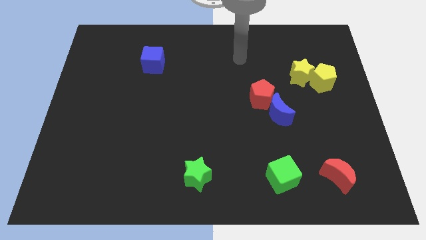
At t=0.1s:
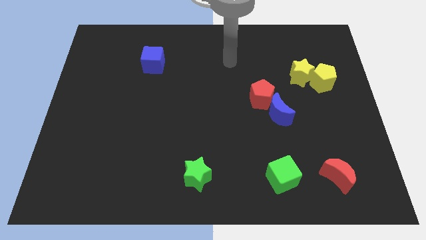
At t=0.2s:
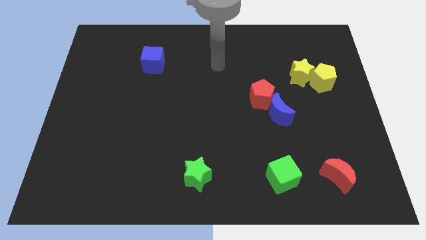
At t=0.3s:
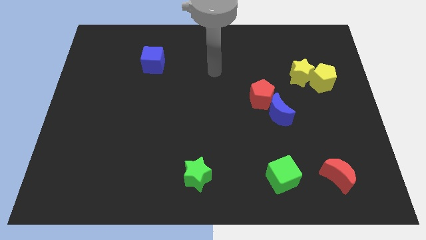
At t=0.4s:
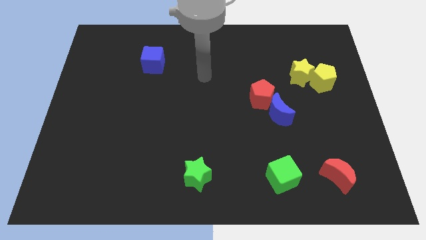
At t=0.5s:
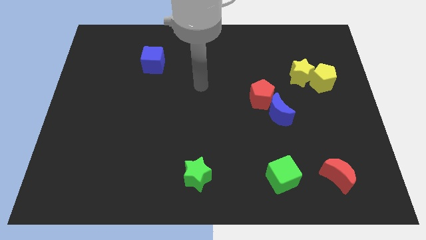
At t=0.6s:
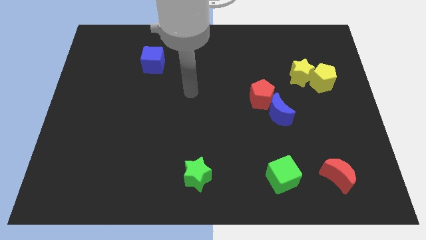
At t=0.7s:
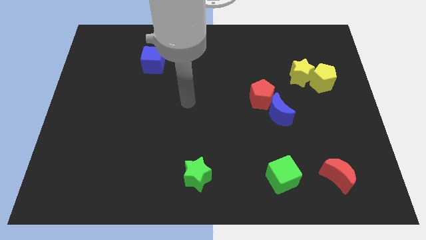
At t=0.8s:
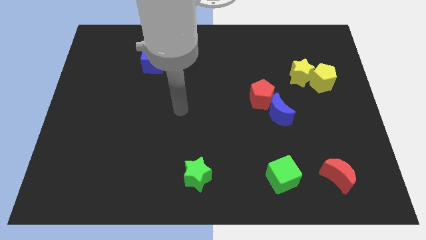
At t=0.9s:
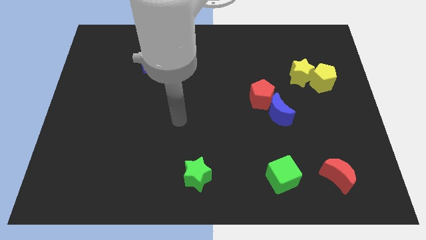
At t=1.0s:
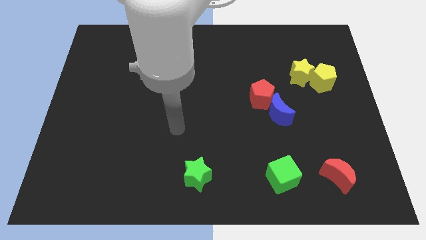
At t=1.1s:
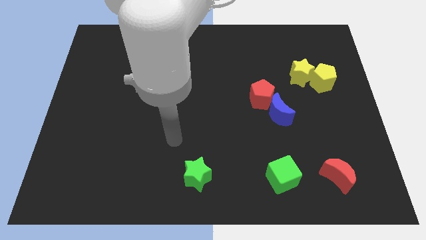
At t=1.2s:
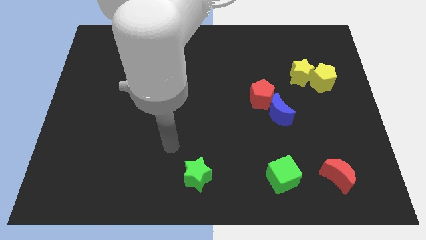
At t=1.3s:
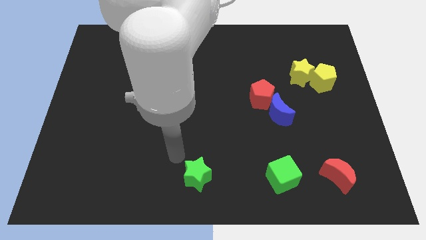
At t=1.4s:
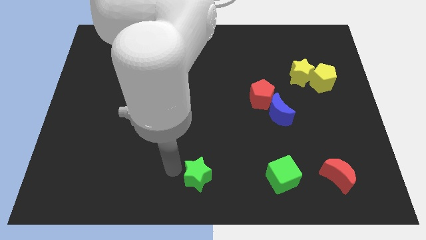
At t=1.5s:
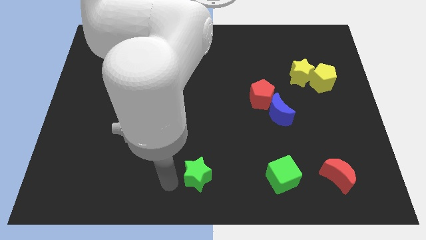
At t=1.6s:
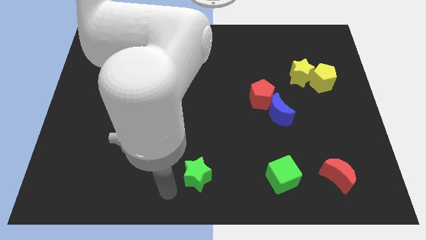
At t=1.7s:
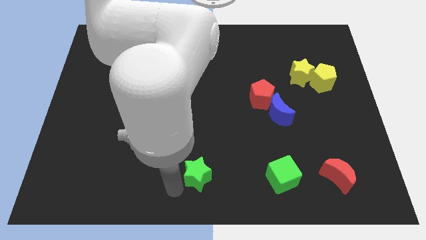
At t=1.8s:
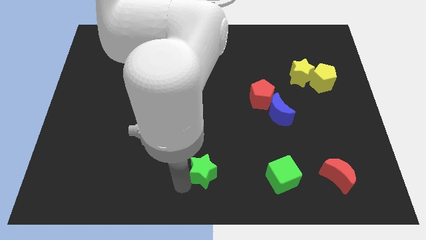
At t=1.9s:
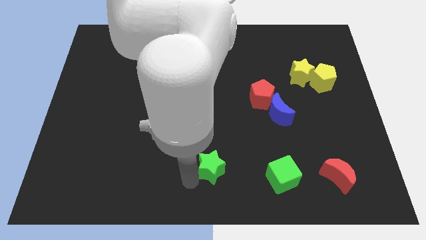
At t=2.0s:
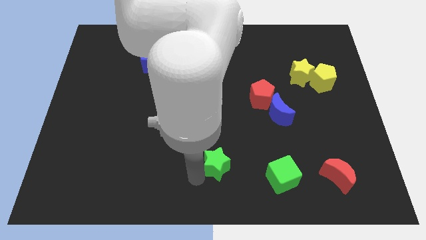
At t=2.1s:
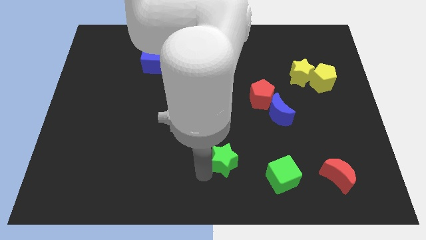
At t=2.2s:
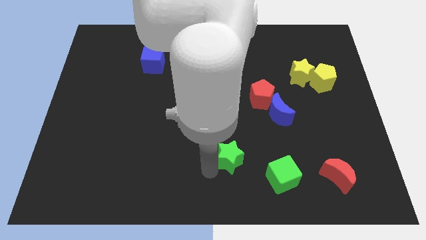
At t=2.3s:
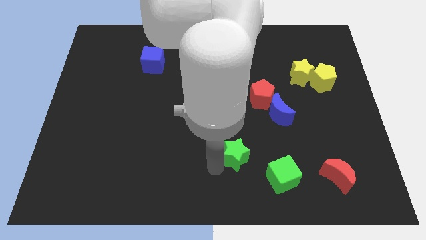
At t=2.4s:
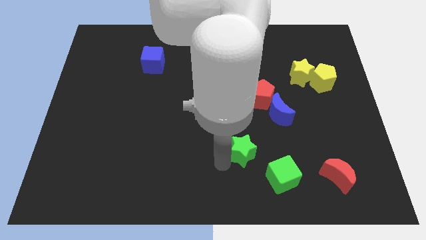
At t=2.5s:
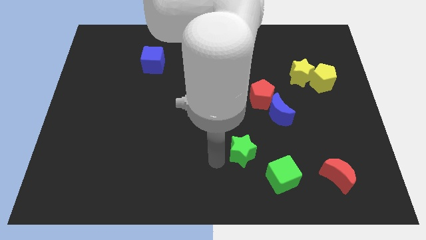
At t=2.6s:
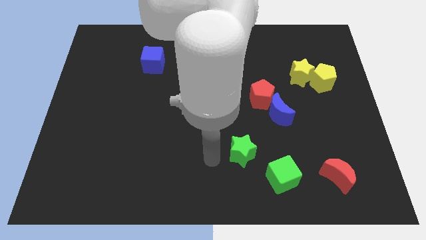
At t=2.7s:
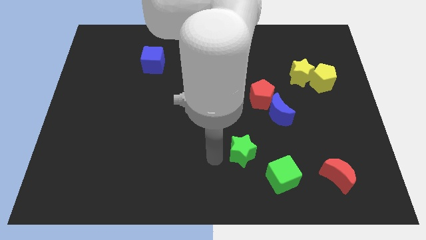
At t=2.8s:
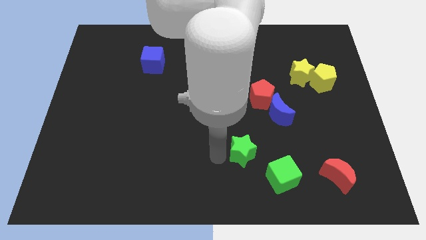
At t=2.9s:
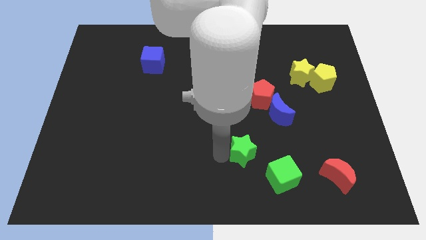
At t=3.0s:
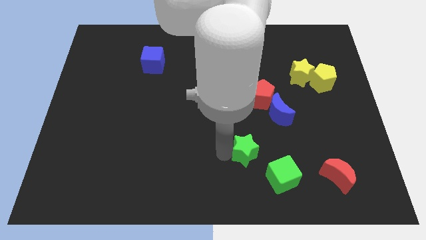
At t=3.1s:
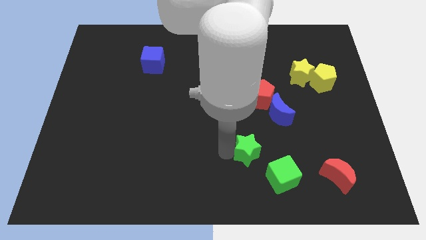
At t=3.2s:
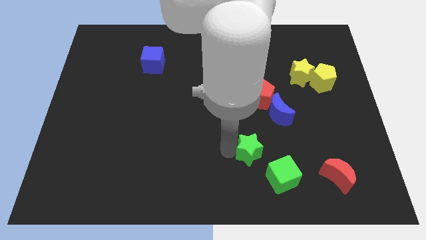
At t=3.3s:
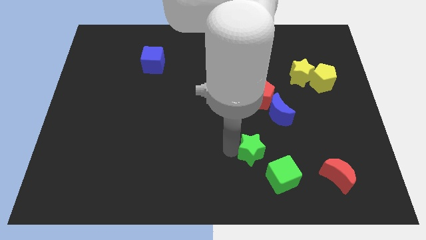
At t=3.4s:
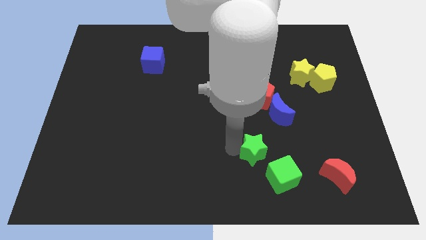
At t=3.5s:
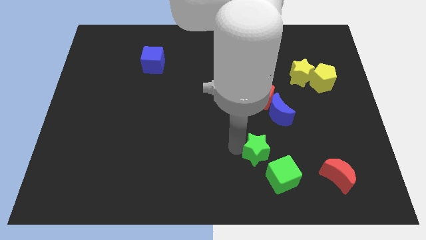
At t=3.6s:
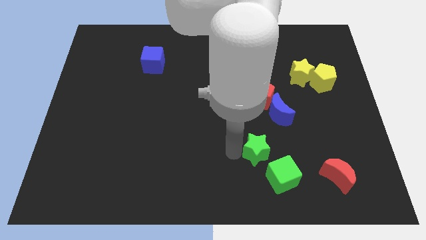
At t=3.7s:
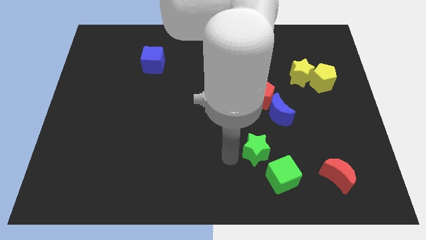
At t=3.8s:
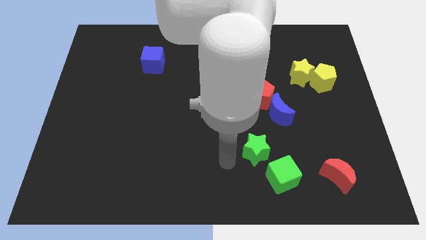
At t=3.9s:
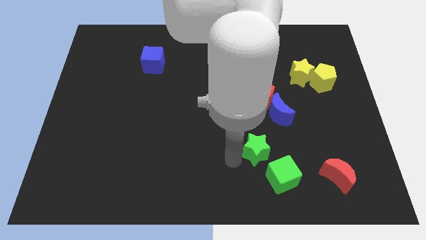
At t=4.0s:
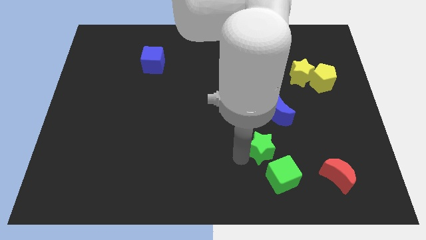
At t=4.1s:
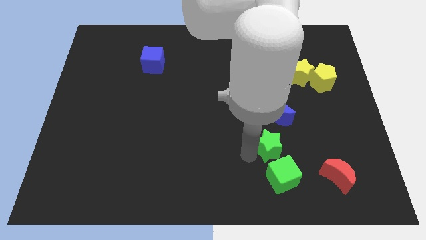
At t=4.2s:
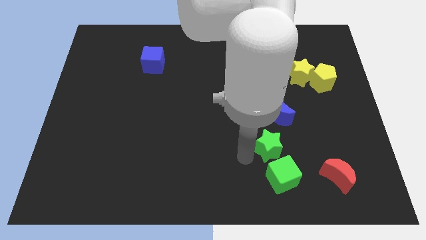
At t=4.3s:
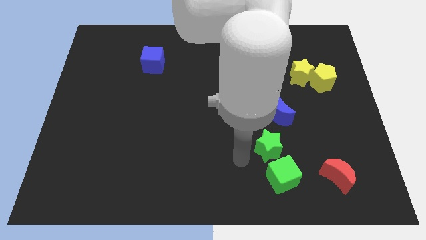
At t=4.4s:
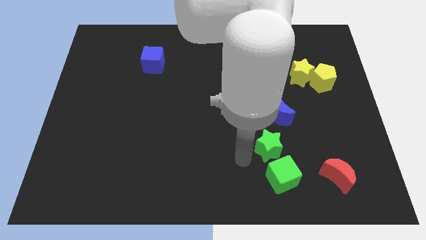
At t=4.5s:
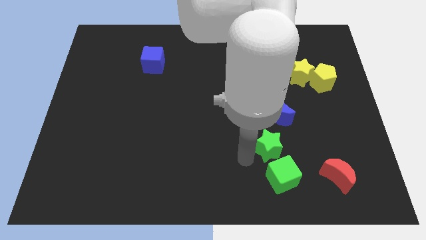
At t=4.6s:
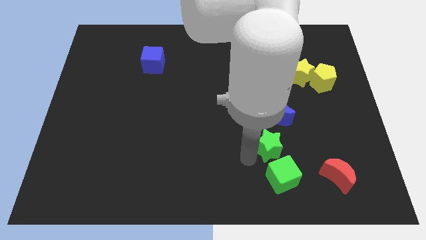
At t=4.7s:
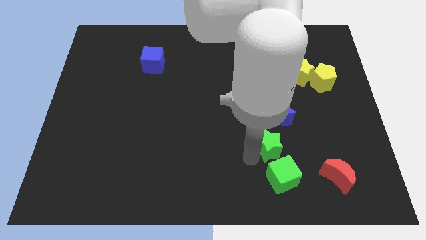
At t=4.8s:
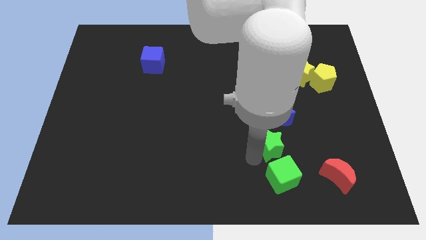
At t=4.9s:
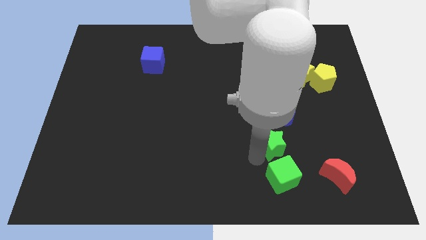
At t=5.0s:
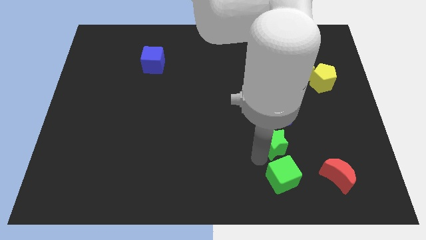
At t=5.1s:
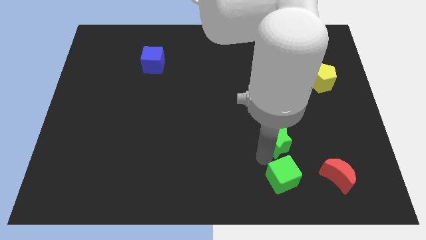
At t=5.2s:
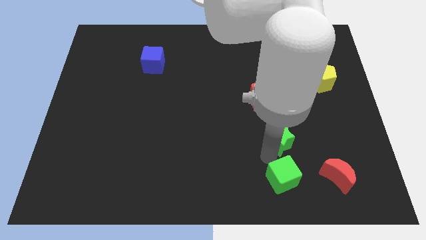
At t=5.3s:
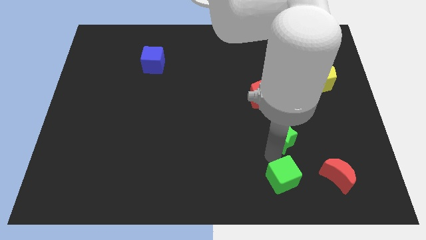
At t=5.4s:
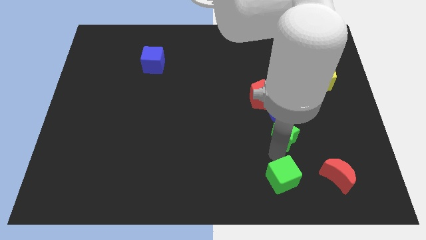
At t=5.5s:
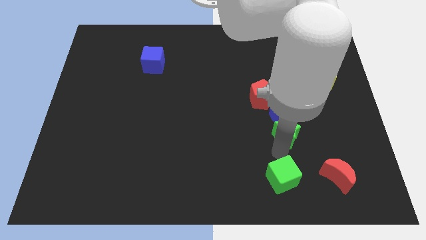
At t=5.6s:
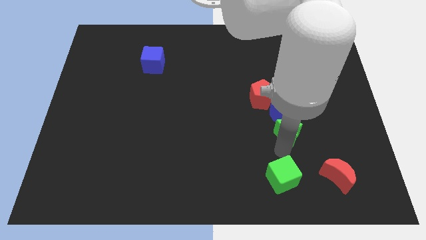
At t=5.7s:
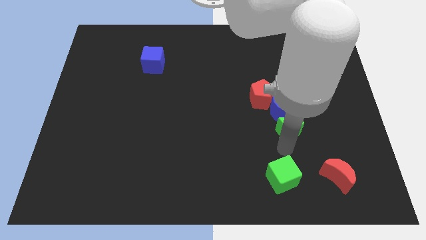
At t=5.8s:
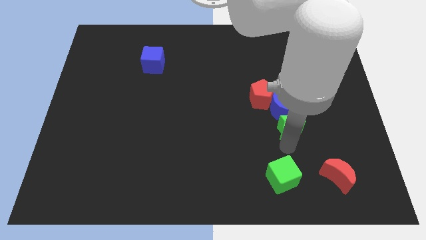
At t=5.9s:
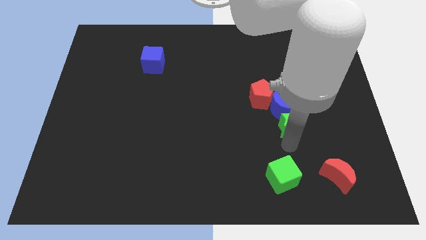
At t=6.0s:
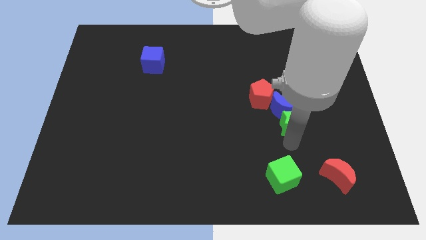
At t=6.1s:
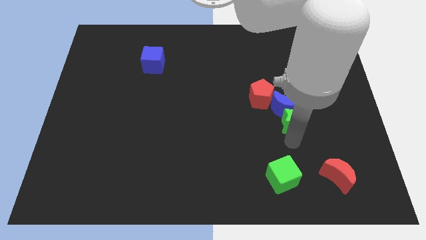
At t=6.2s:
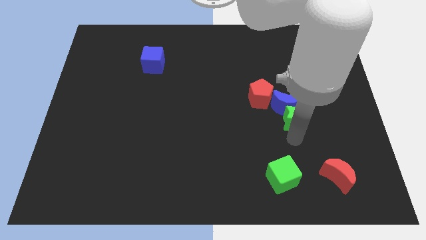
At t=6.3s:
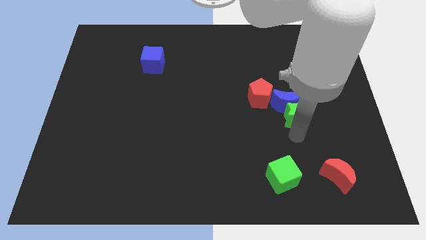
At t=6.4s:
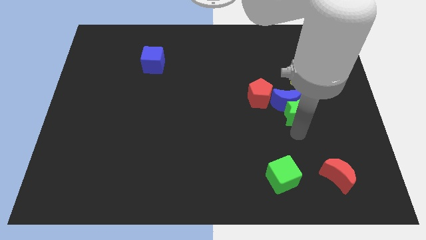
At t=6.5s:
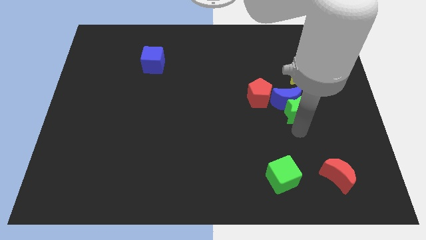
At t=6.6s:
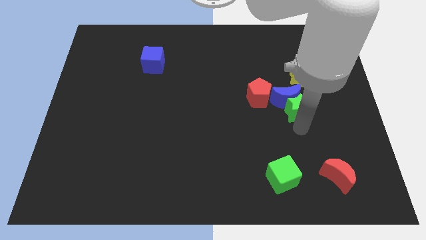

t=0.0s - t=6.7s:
move the green star to the right side of the red pentagon
